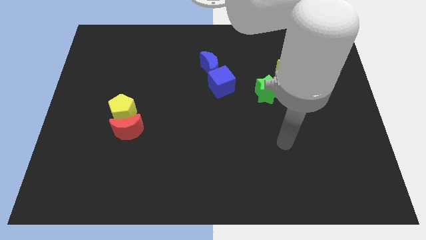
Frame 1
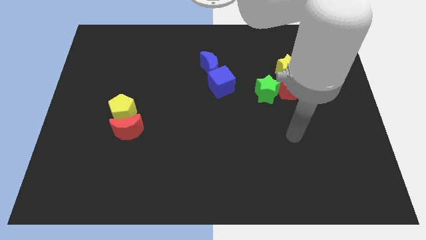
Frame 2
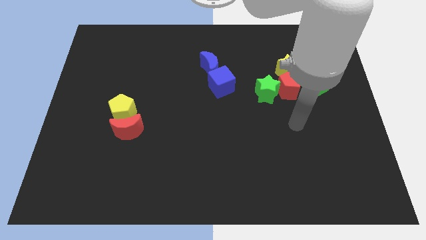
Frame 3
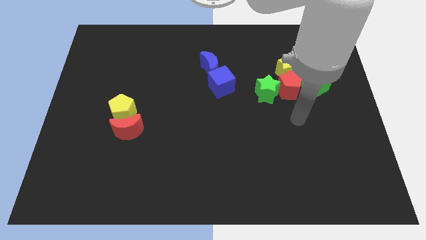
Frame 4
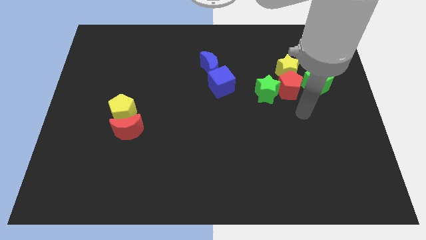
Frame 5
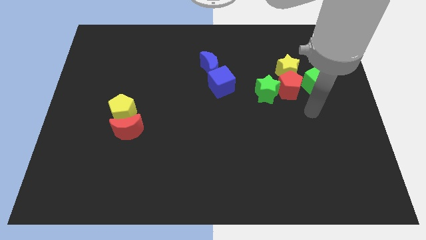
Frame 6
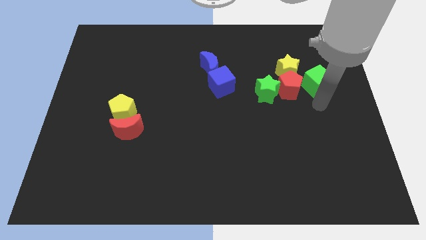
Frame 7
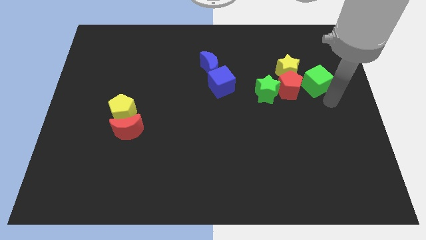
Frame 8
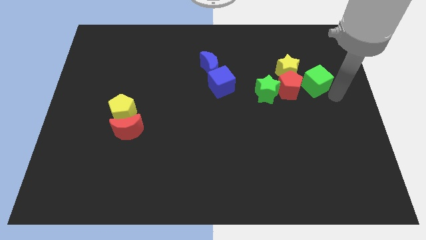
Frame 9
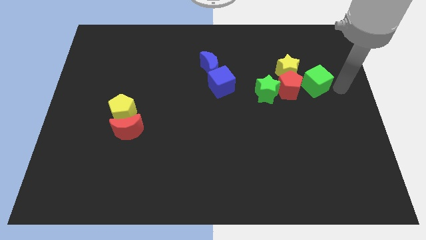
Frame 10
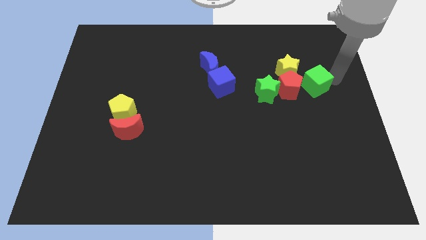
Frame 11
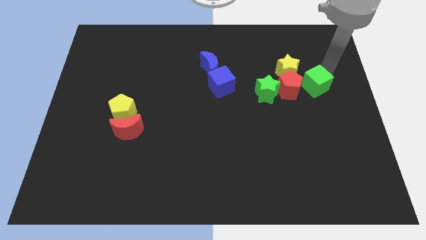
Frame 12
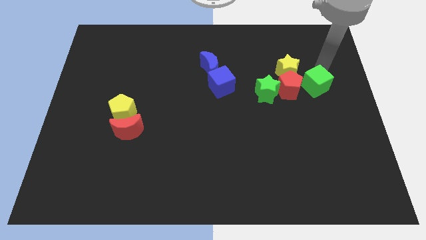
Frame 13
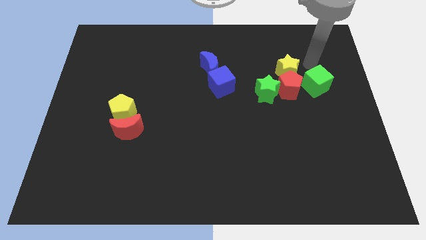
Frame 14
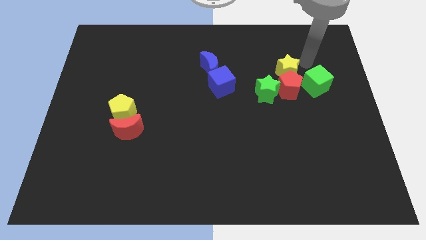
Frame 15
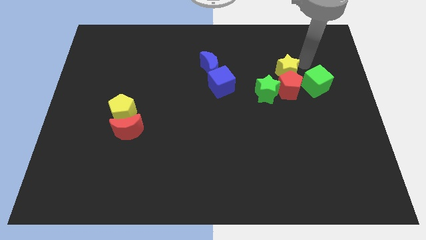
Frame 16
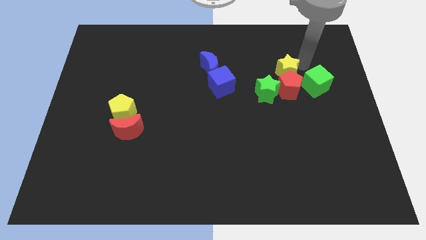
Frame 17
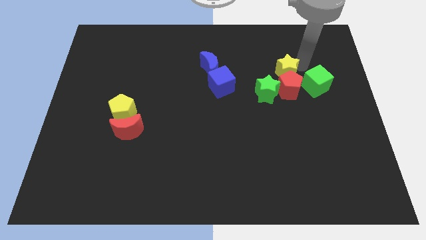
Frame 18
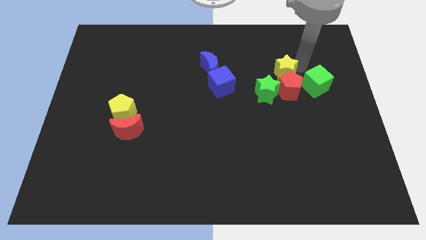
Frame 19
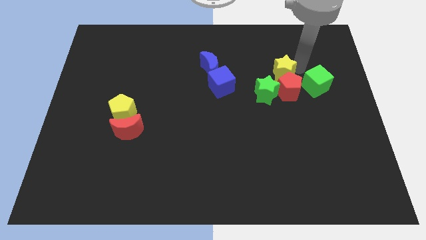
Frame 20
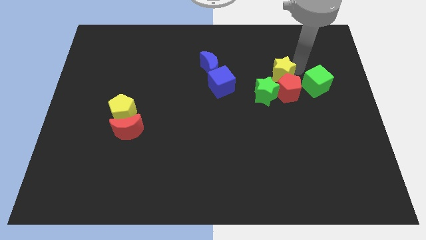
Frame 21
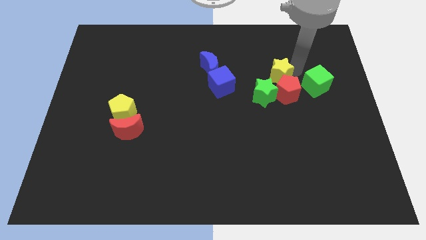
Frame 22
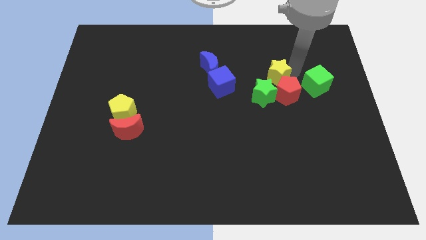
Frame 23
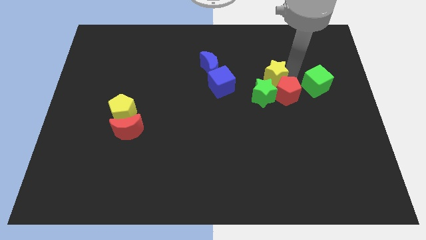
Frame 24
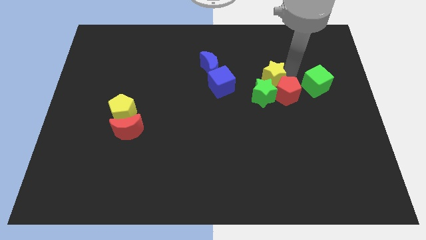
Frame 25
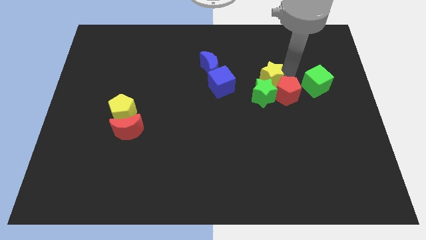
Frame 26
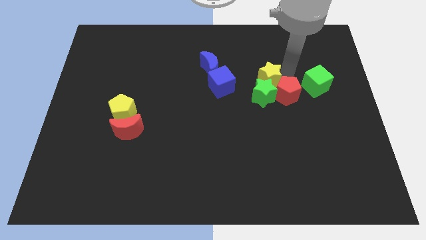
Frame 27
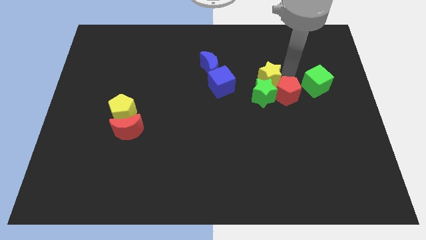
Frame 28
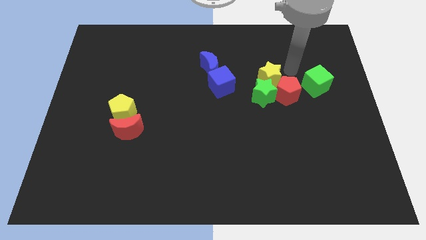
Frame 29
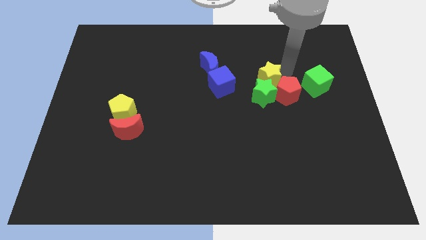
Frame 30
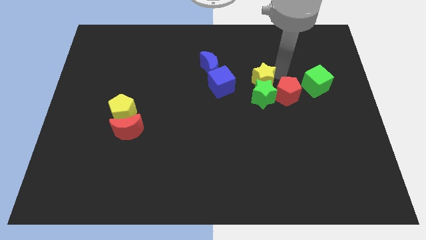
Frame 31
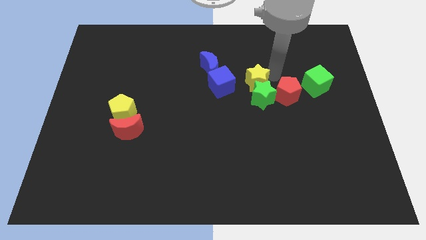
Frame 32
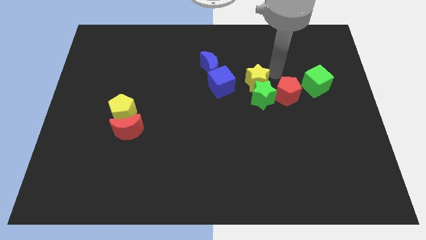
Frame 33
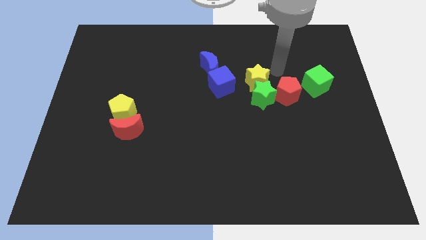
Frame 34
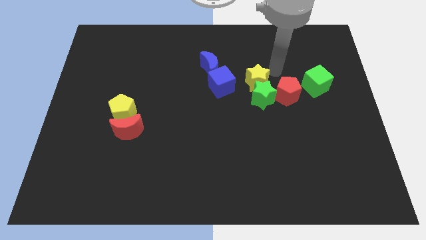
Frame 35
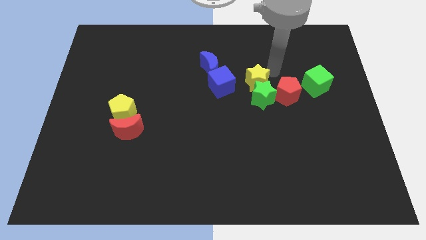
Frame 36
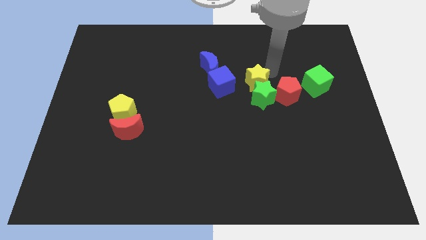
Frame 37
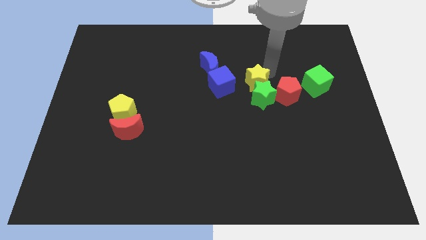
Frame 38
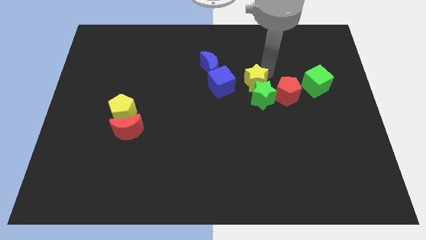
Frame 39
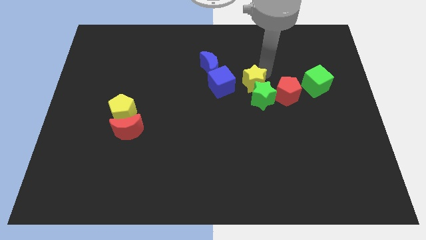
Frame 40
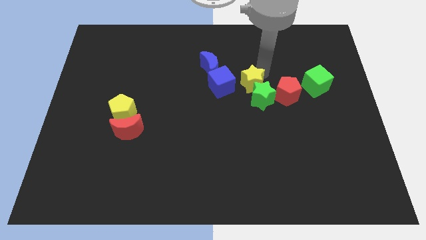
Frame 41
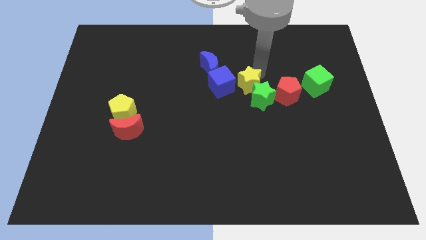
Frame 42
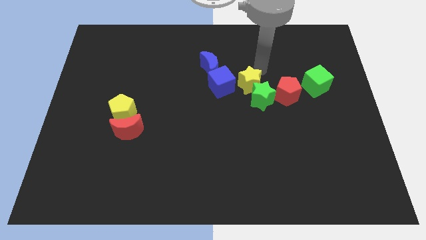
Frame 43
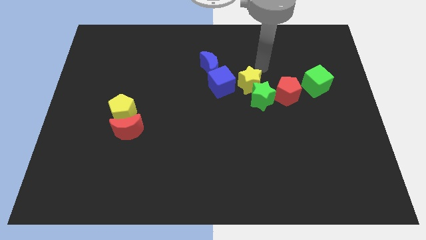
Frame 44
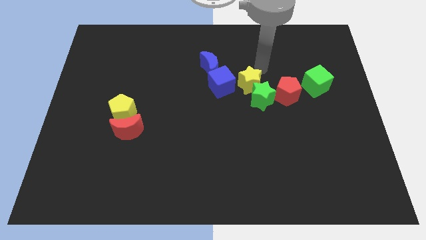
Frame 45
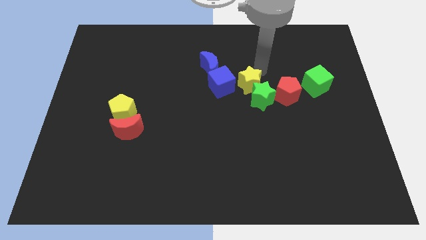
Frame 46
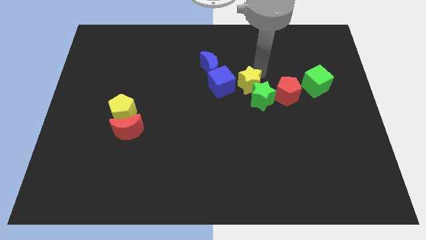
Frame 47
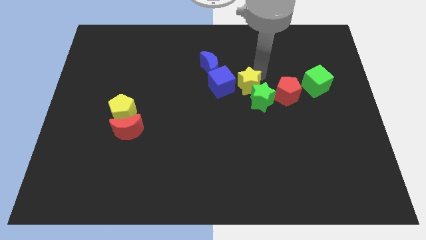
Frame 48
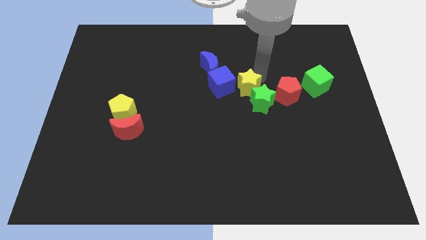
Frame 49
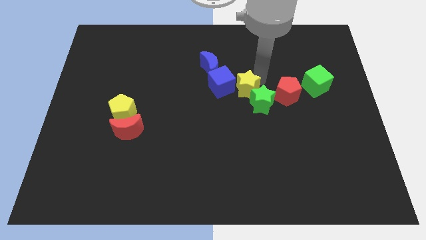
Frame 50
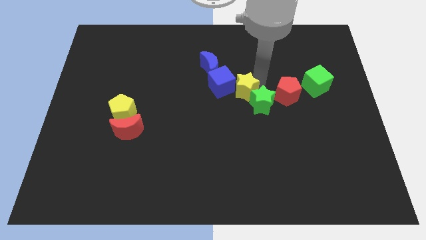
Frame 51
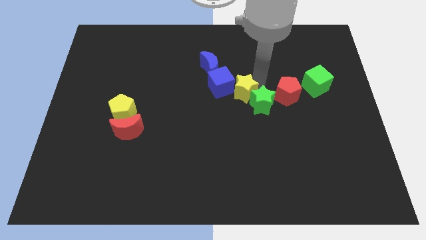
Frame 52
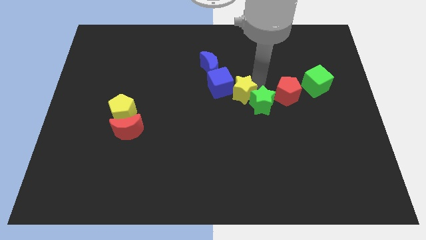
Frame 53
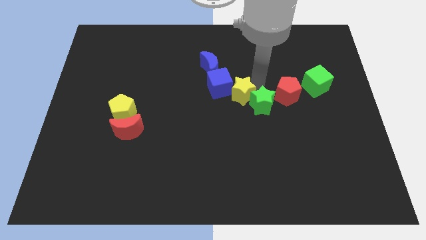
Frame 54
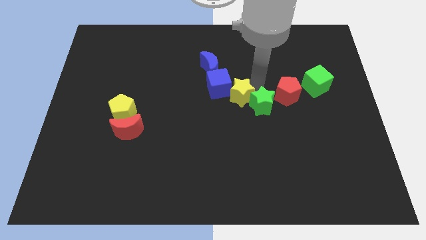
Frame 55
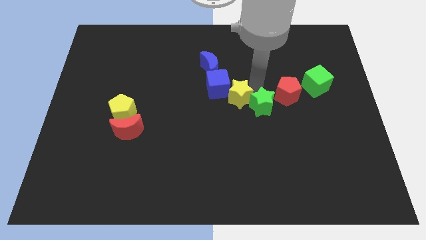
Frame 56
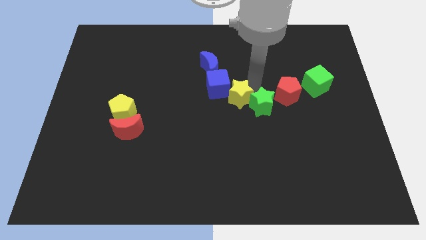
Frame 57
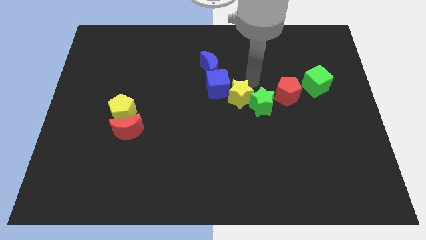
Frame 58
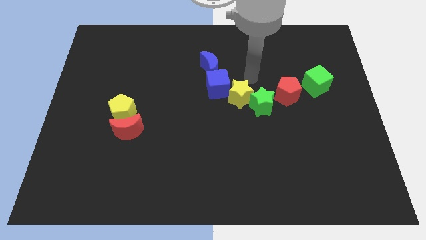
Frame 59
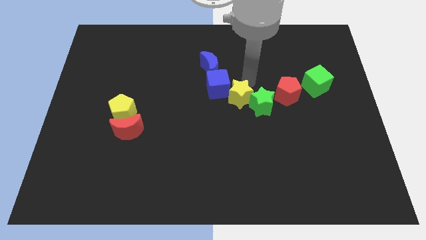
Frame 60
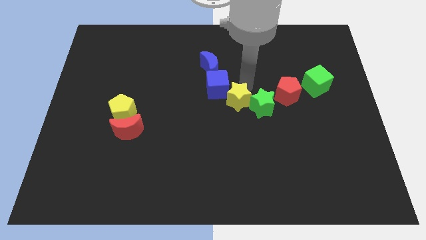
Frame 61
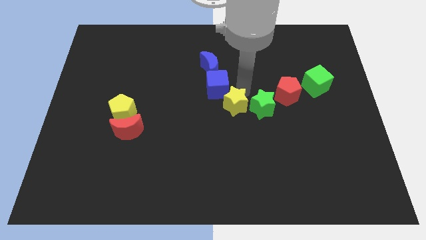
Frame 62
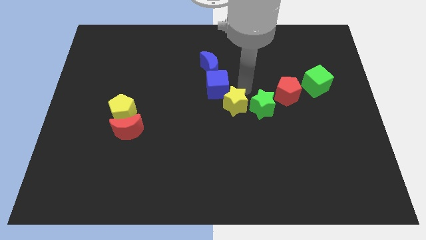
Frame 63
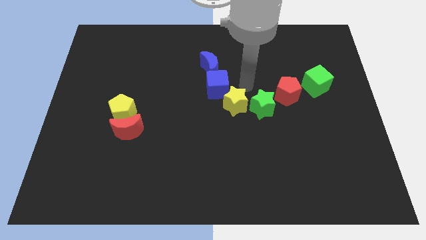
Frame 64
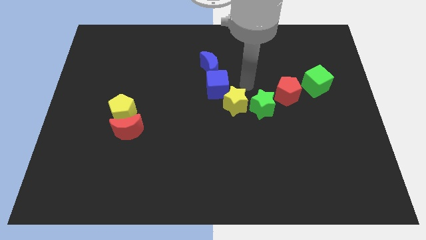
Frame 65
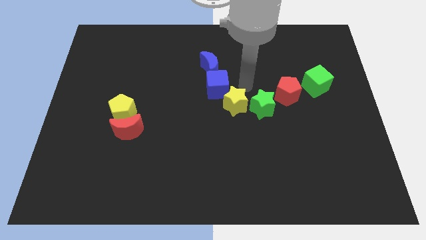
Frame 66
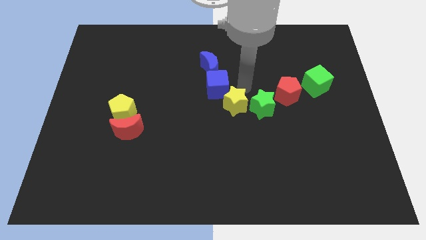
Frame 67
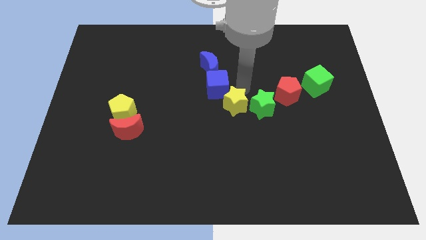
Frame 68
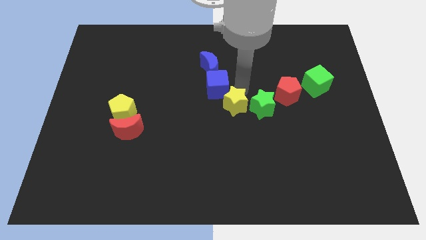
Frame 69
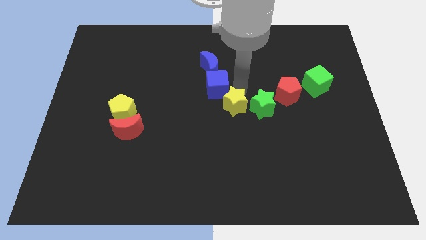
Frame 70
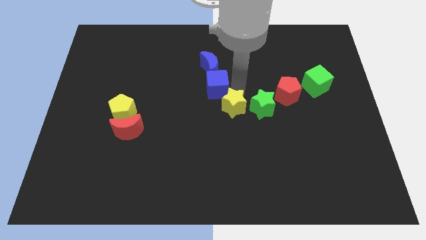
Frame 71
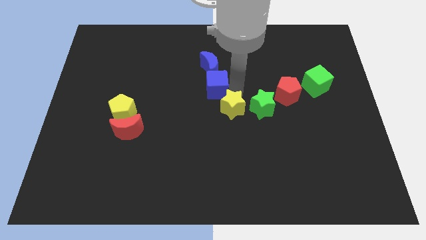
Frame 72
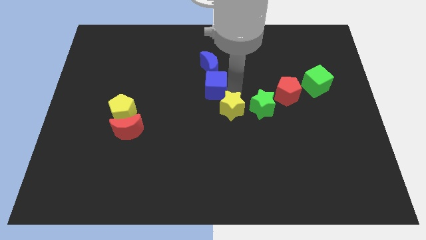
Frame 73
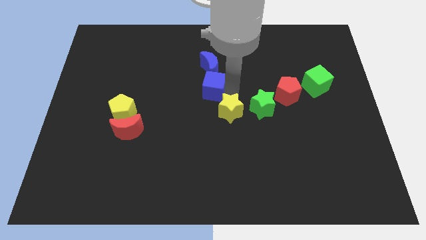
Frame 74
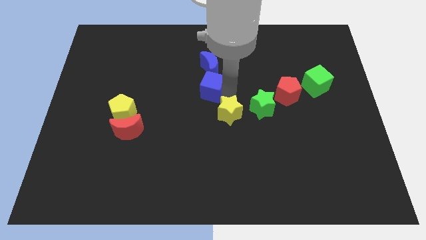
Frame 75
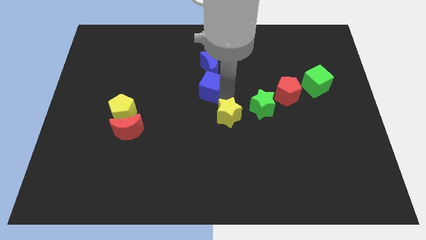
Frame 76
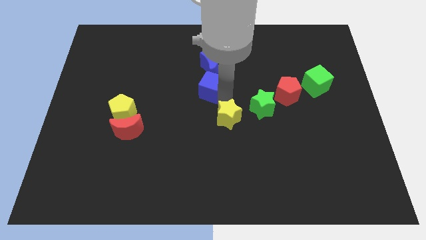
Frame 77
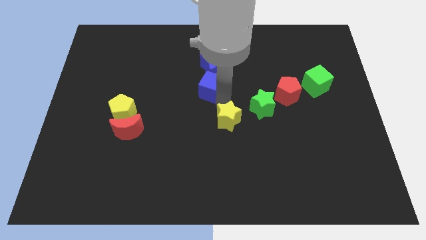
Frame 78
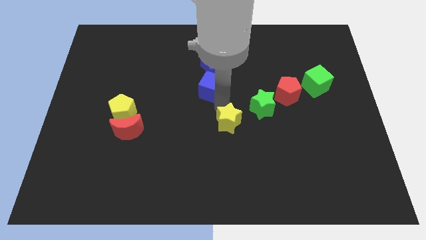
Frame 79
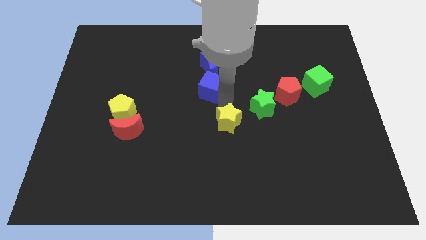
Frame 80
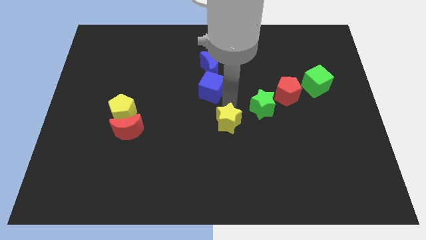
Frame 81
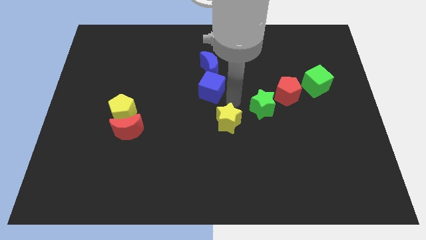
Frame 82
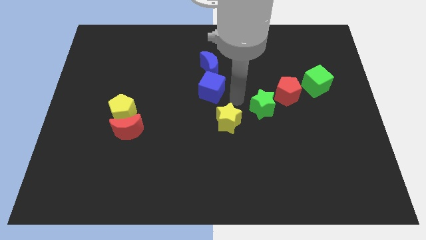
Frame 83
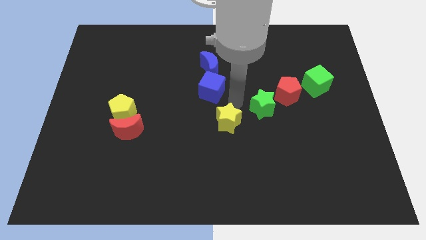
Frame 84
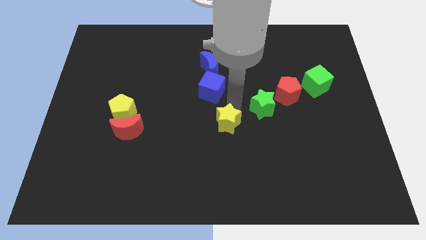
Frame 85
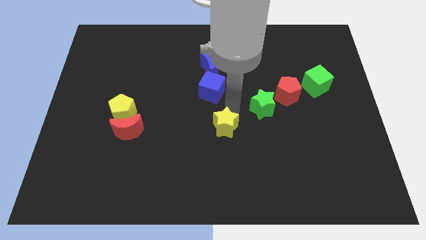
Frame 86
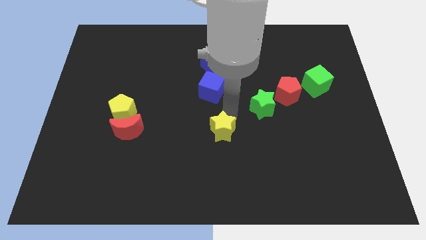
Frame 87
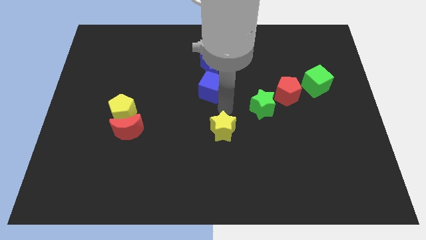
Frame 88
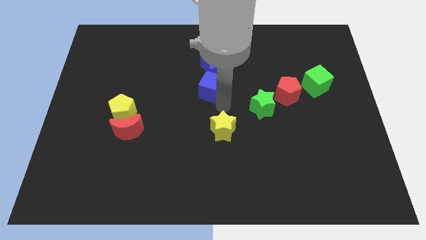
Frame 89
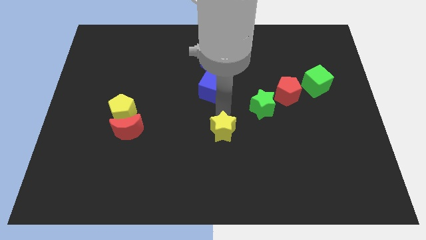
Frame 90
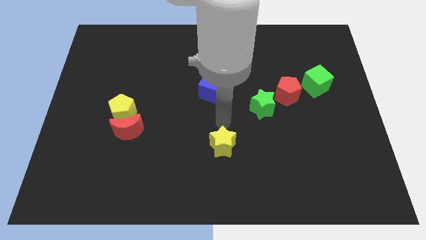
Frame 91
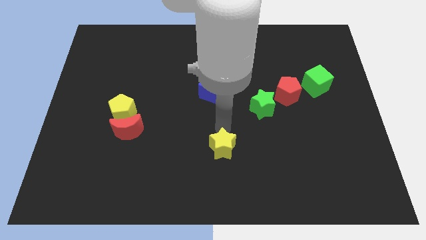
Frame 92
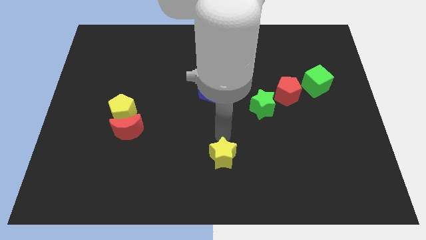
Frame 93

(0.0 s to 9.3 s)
move the yellow star to the bottom
